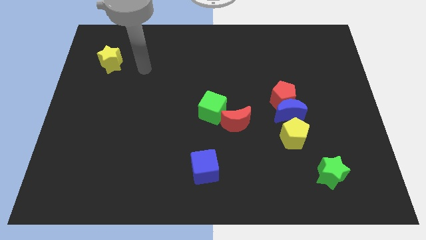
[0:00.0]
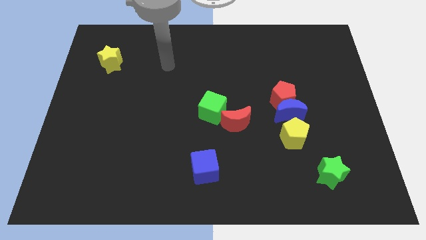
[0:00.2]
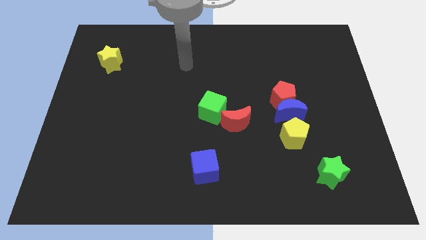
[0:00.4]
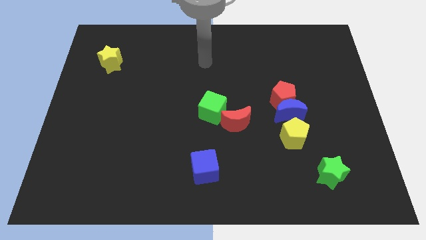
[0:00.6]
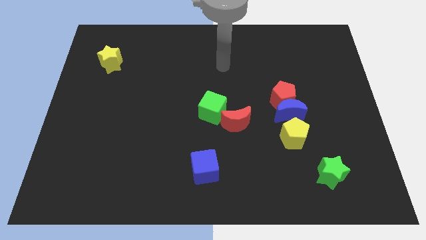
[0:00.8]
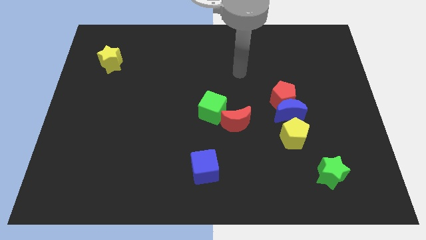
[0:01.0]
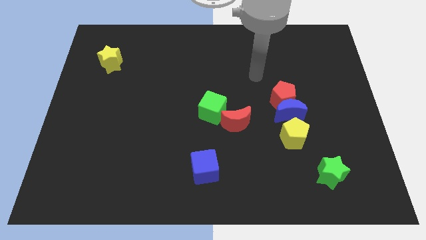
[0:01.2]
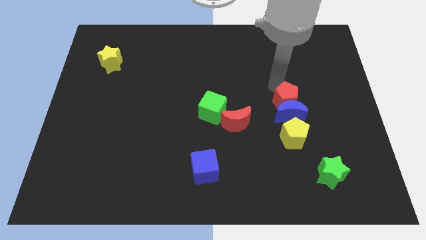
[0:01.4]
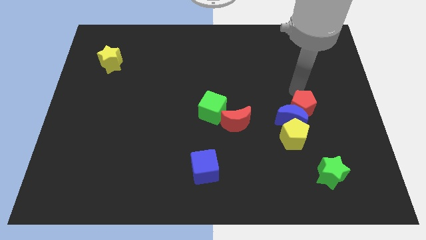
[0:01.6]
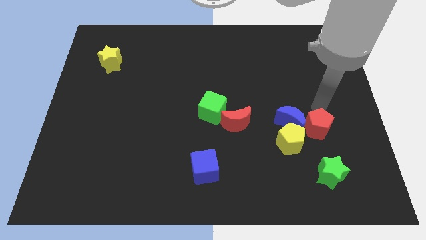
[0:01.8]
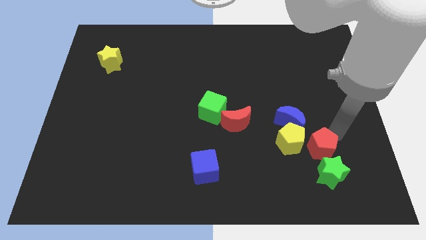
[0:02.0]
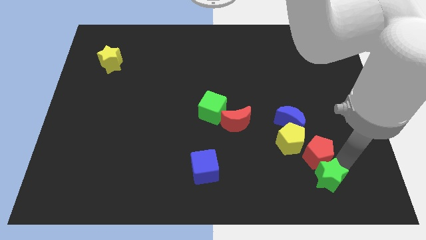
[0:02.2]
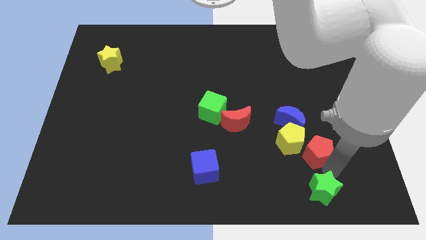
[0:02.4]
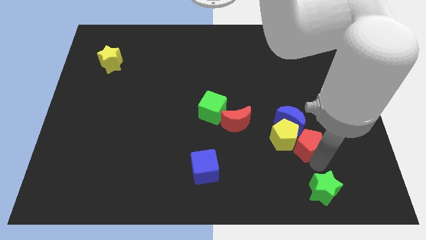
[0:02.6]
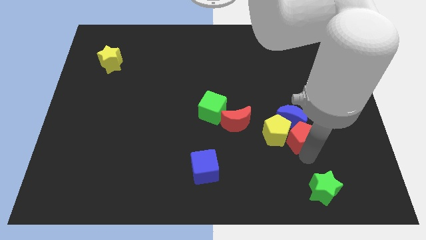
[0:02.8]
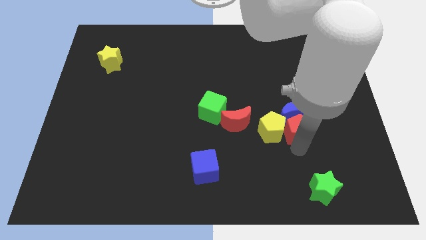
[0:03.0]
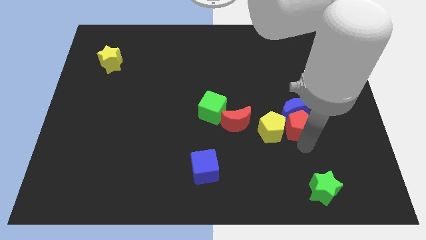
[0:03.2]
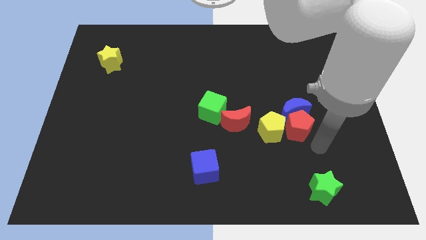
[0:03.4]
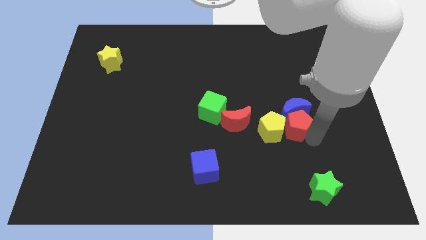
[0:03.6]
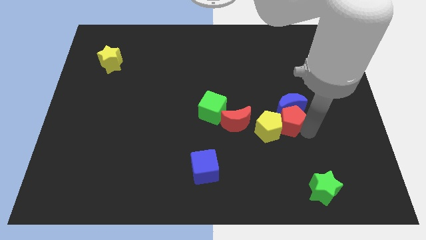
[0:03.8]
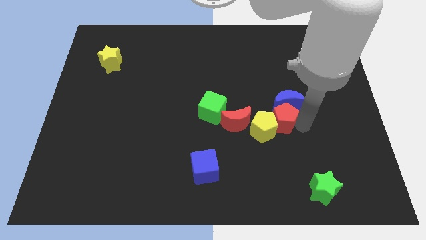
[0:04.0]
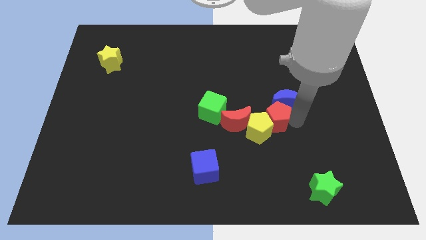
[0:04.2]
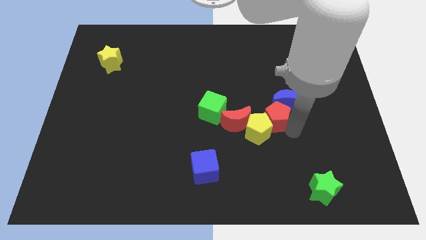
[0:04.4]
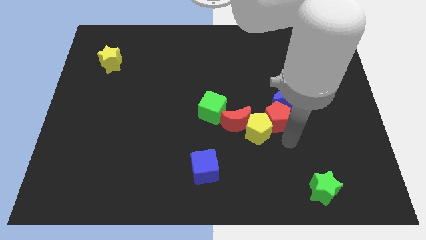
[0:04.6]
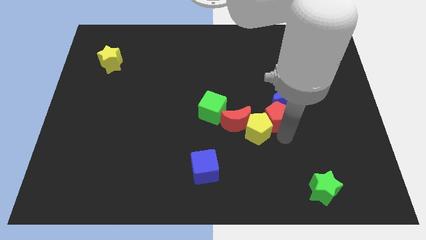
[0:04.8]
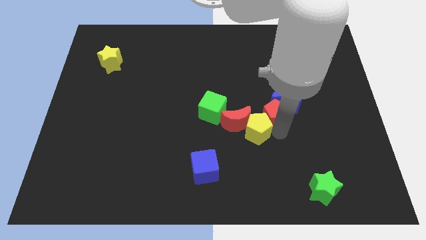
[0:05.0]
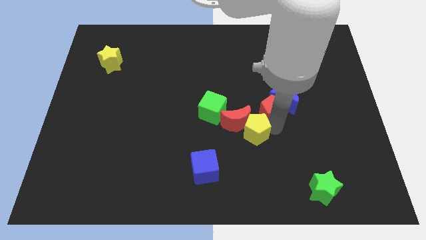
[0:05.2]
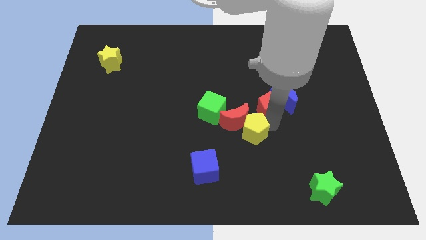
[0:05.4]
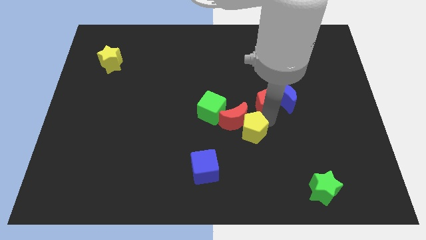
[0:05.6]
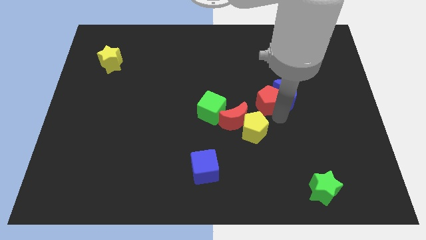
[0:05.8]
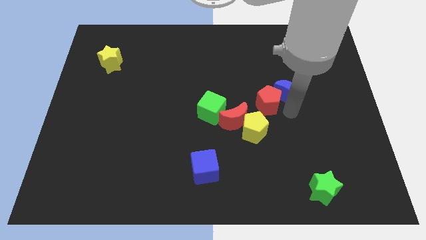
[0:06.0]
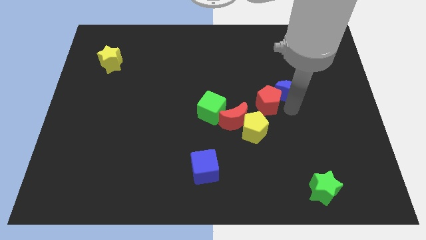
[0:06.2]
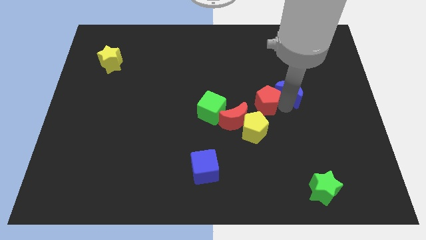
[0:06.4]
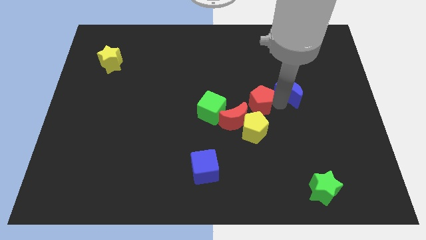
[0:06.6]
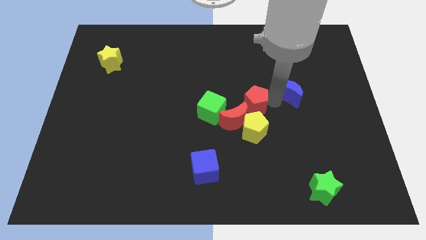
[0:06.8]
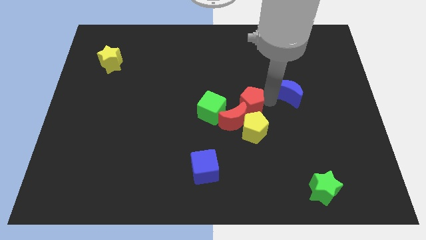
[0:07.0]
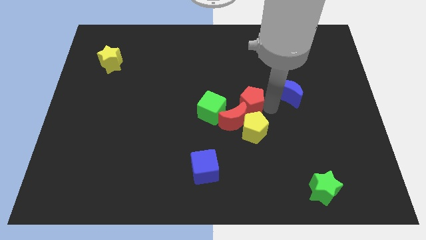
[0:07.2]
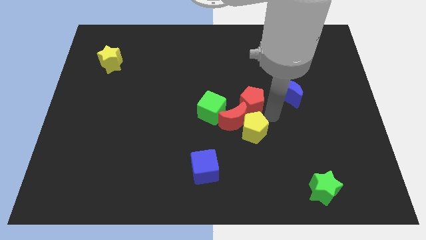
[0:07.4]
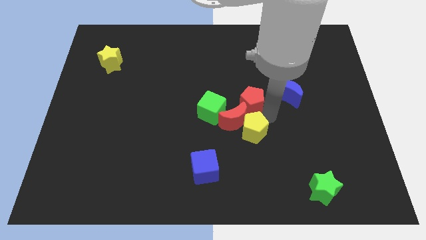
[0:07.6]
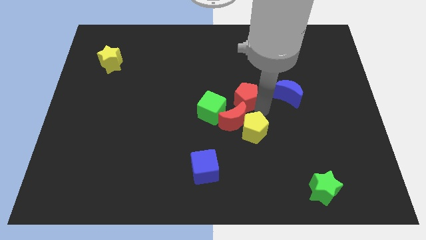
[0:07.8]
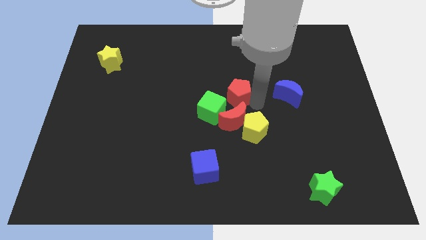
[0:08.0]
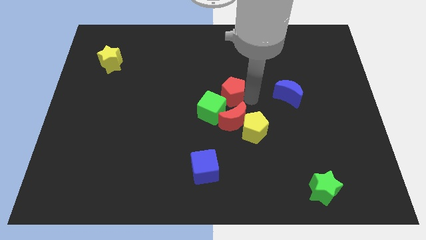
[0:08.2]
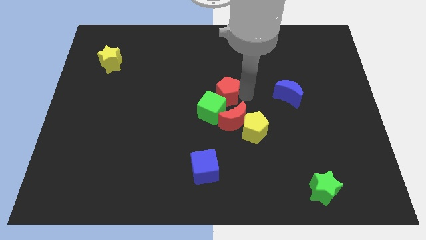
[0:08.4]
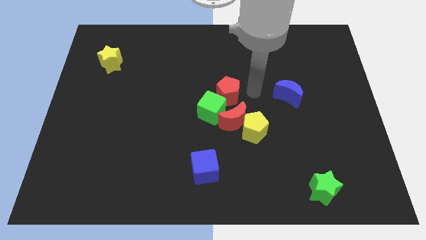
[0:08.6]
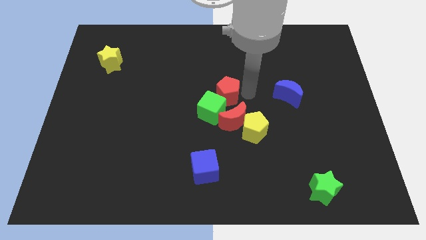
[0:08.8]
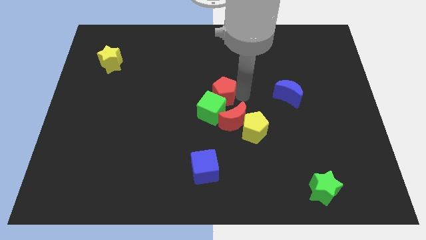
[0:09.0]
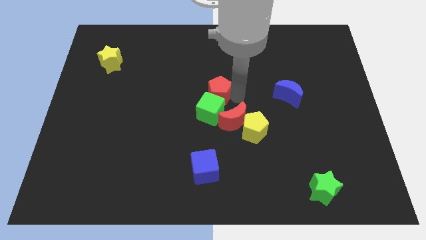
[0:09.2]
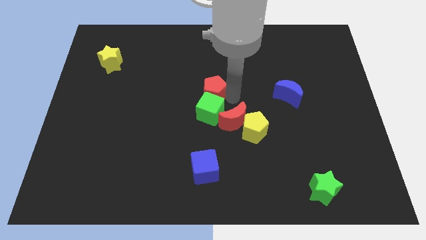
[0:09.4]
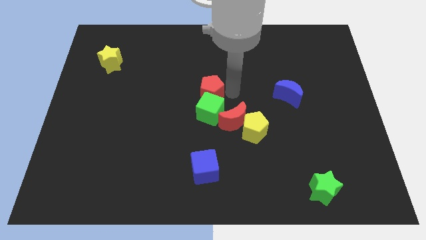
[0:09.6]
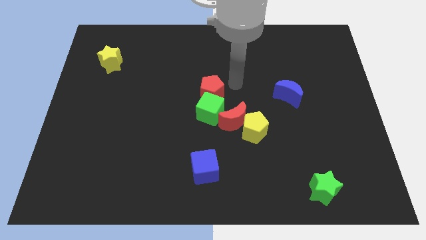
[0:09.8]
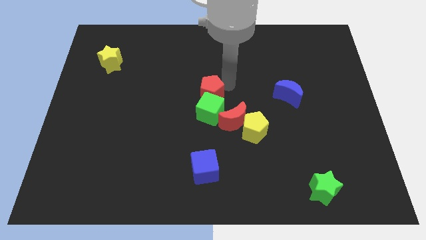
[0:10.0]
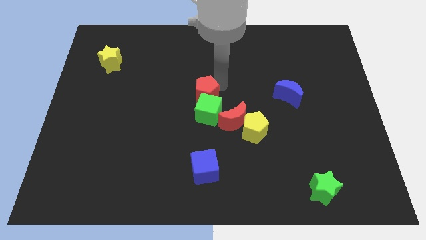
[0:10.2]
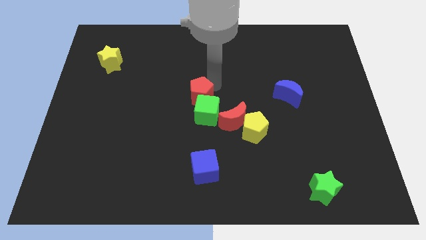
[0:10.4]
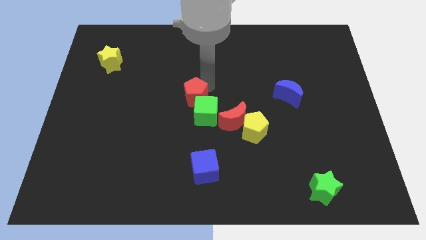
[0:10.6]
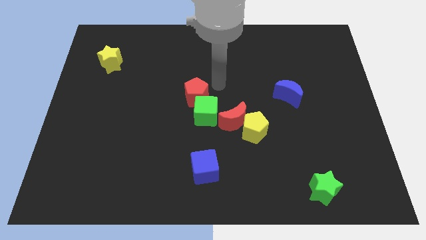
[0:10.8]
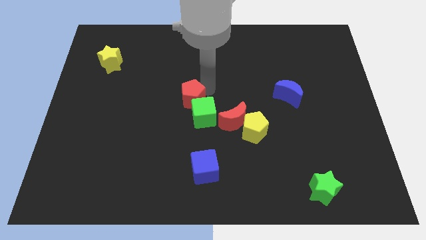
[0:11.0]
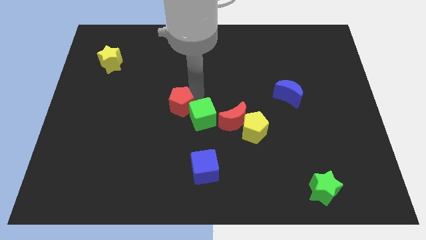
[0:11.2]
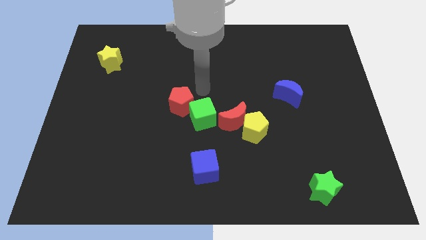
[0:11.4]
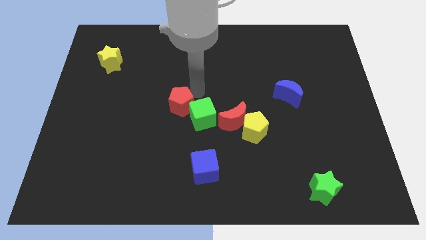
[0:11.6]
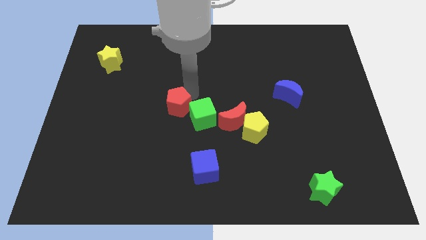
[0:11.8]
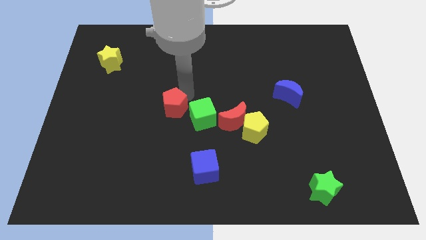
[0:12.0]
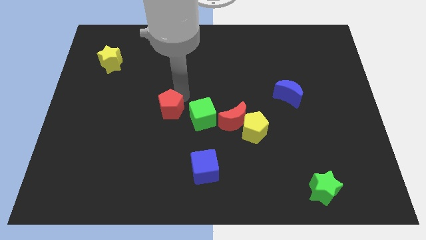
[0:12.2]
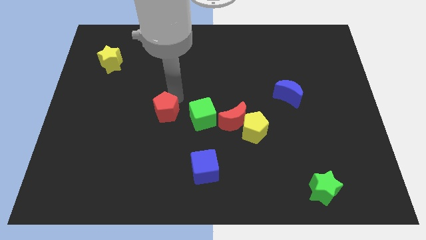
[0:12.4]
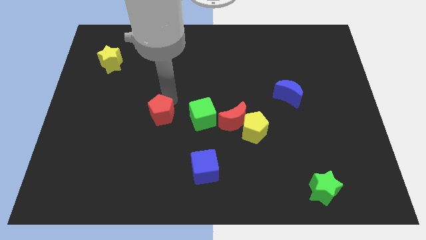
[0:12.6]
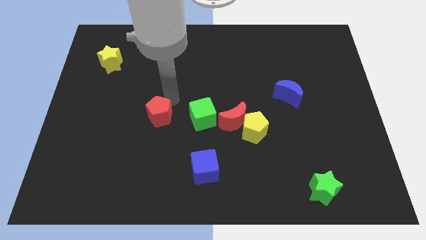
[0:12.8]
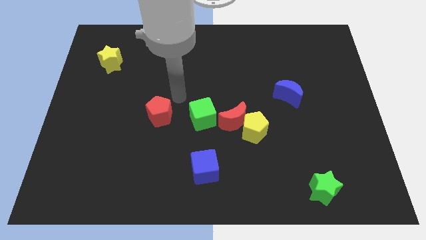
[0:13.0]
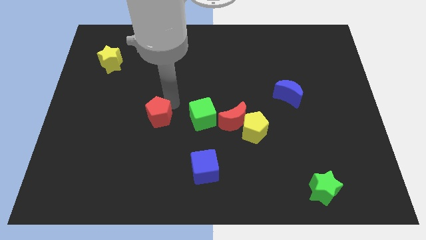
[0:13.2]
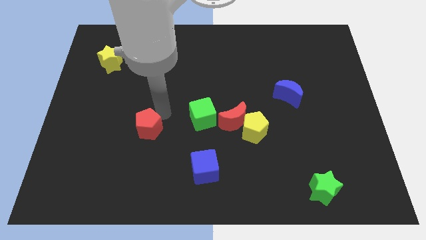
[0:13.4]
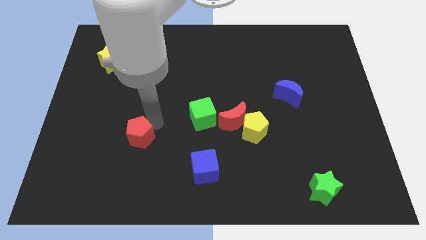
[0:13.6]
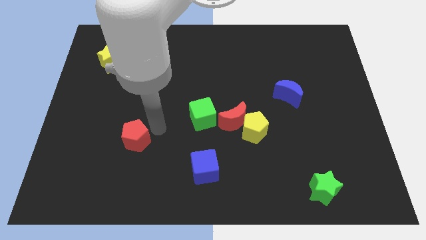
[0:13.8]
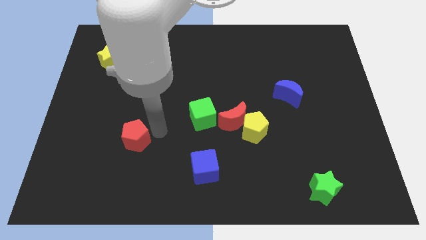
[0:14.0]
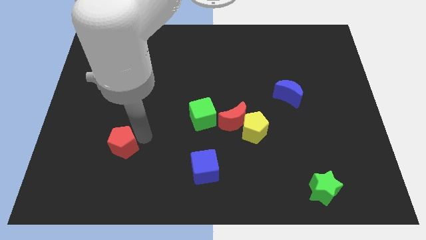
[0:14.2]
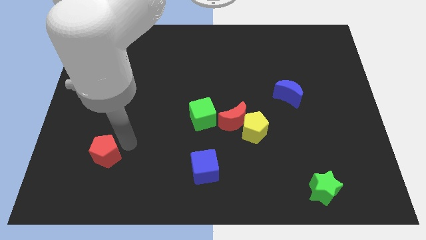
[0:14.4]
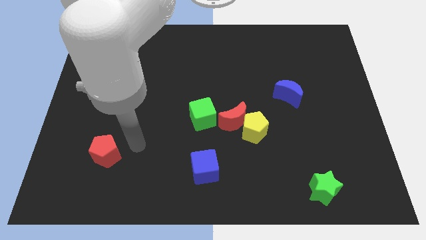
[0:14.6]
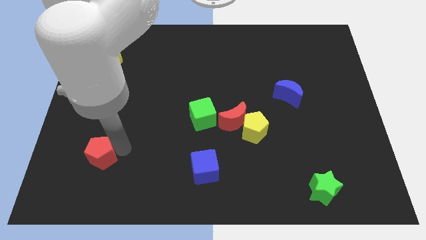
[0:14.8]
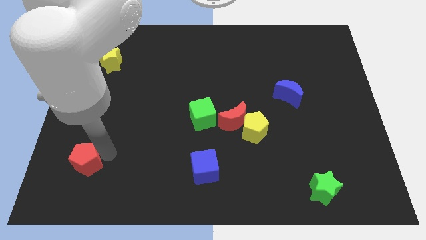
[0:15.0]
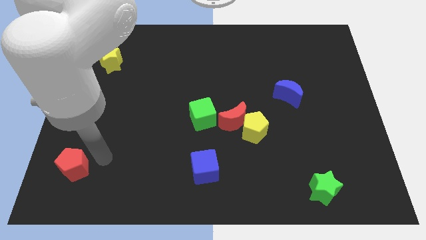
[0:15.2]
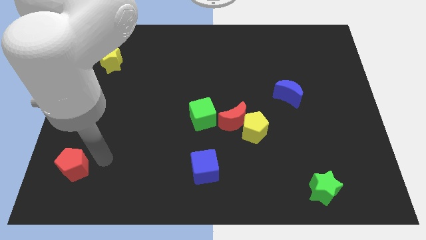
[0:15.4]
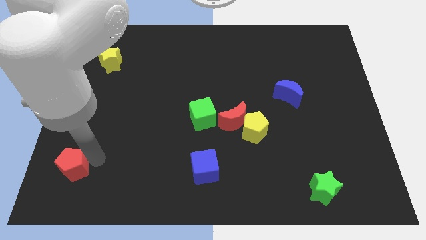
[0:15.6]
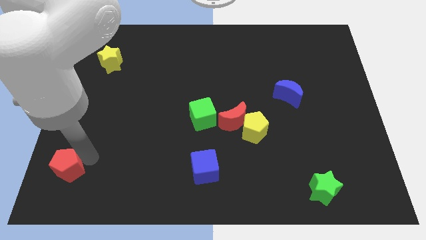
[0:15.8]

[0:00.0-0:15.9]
slide the red pentagon to the bottom left of the board
